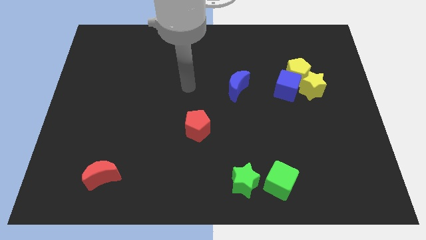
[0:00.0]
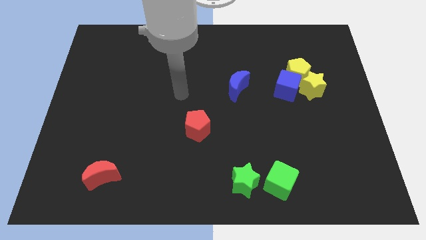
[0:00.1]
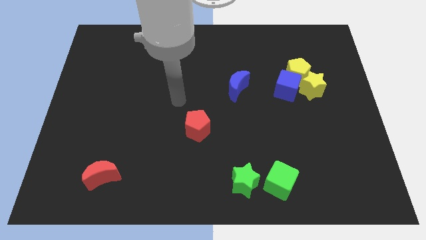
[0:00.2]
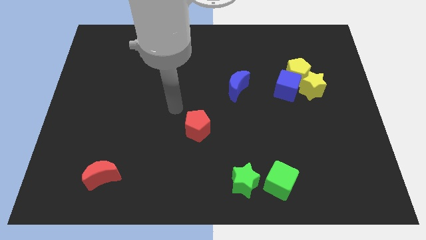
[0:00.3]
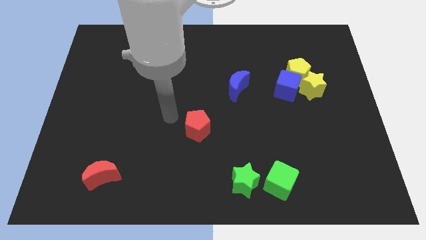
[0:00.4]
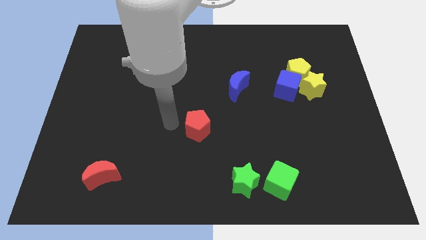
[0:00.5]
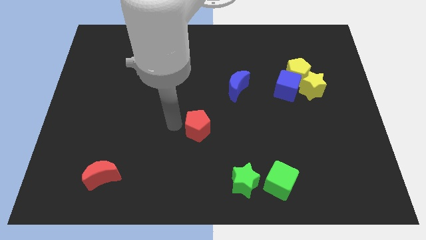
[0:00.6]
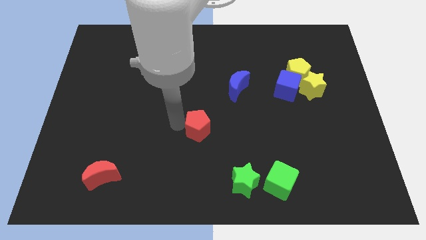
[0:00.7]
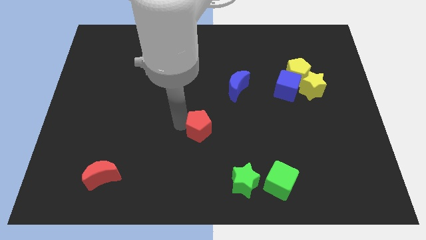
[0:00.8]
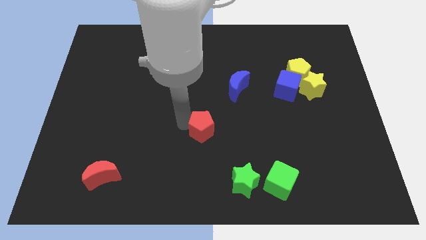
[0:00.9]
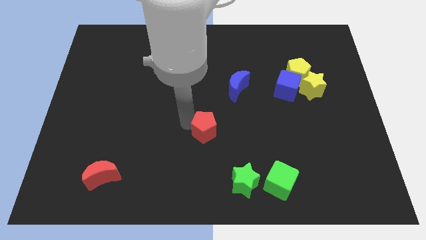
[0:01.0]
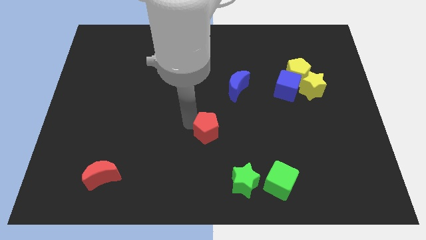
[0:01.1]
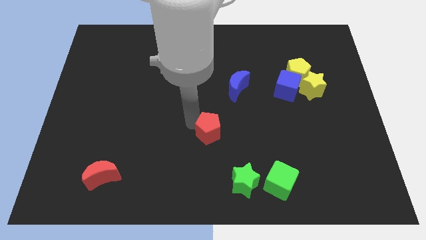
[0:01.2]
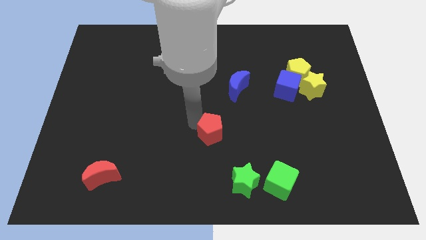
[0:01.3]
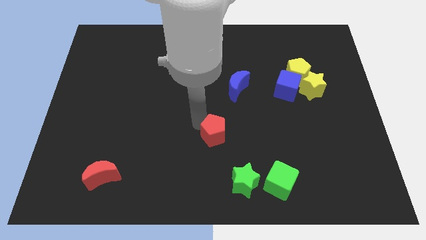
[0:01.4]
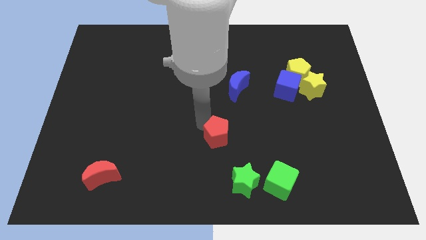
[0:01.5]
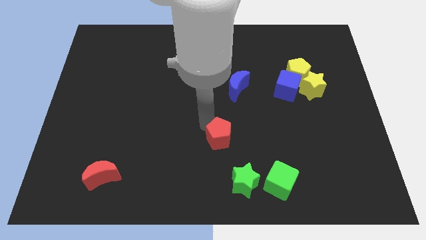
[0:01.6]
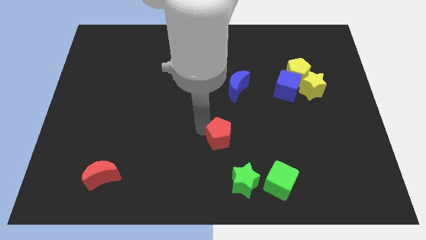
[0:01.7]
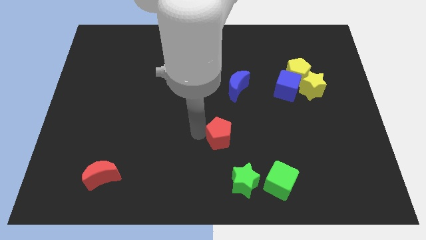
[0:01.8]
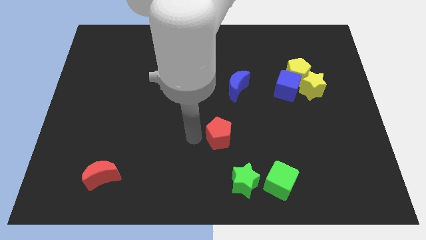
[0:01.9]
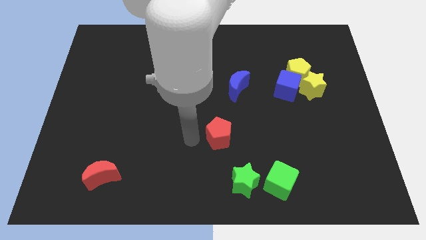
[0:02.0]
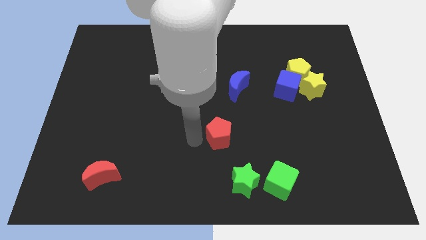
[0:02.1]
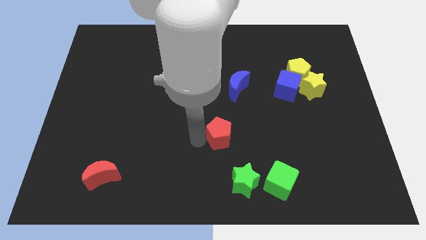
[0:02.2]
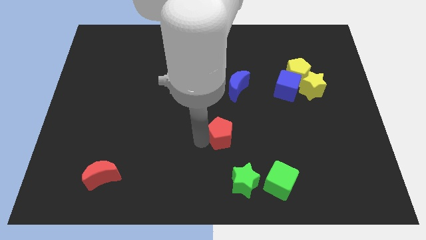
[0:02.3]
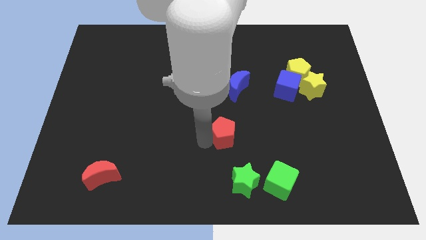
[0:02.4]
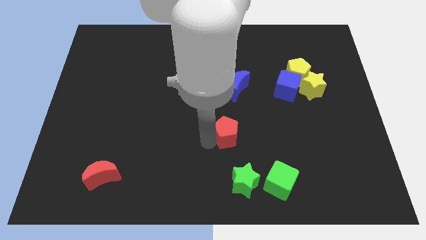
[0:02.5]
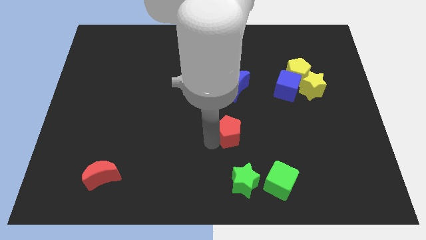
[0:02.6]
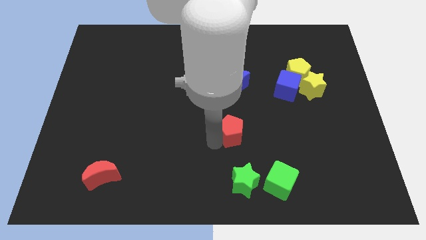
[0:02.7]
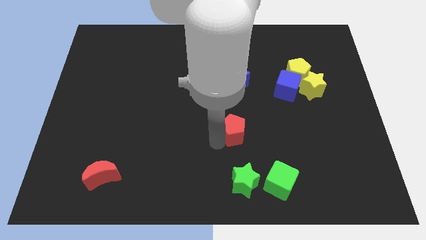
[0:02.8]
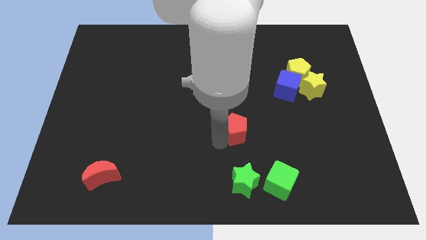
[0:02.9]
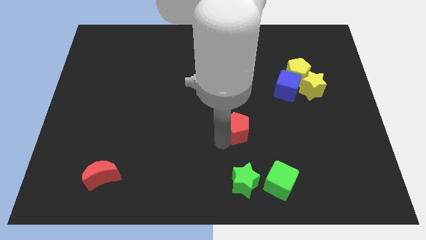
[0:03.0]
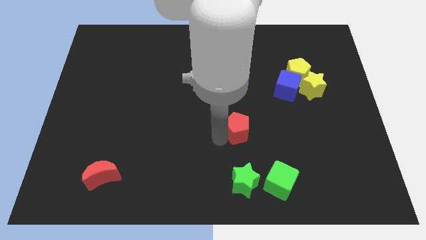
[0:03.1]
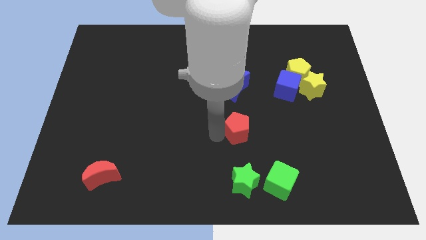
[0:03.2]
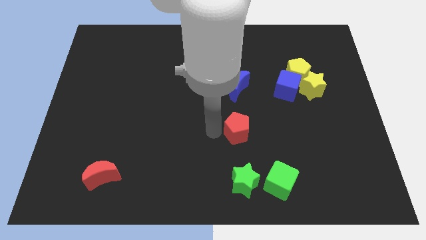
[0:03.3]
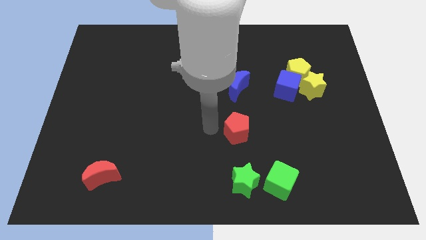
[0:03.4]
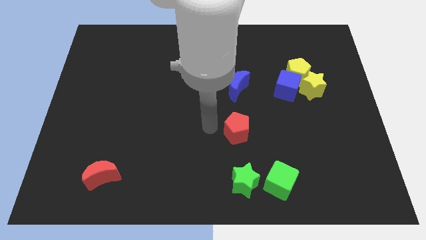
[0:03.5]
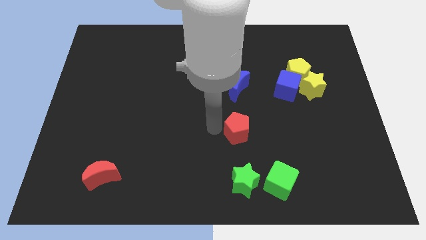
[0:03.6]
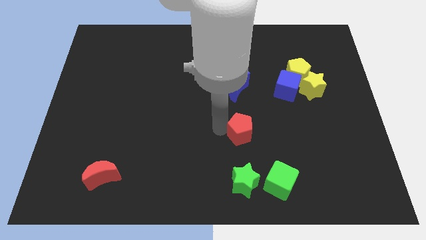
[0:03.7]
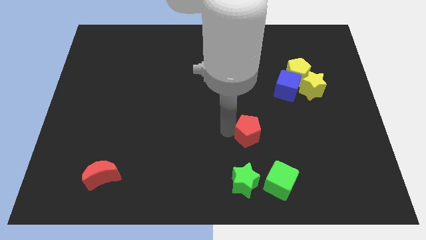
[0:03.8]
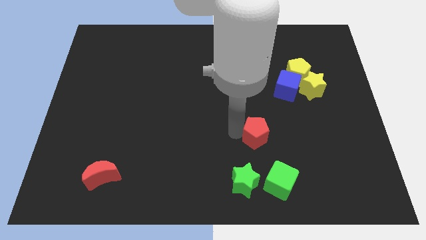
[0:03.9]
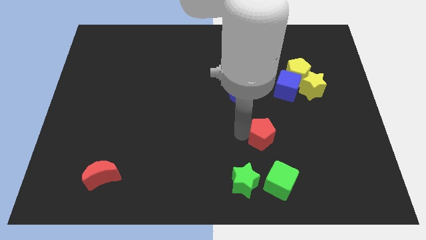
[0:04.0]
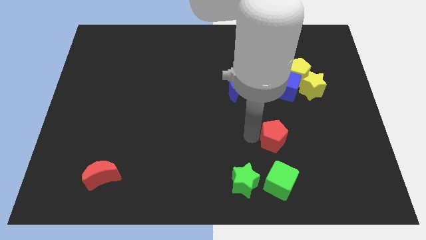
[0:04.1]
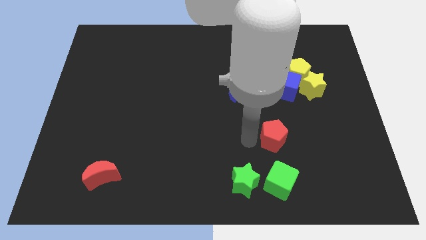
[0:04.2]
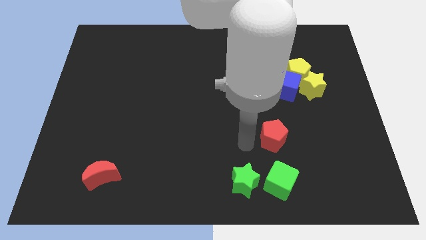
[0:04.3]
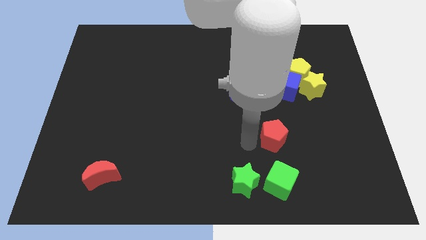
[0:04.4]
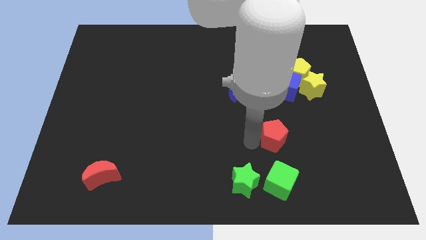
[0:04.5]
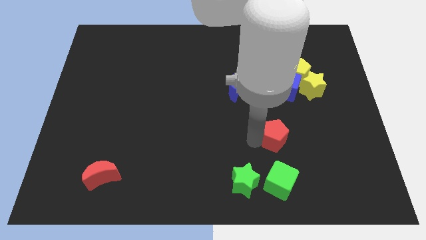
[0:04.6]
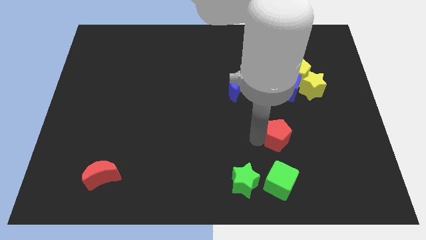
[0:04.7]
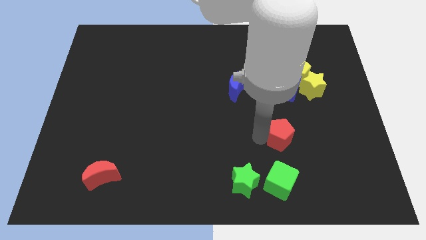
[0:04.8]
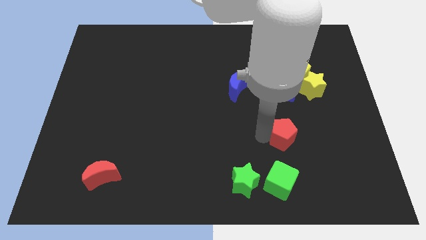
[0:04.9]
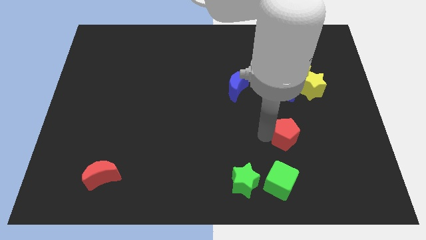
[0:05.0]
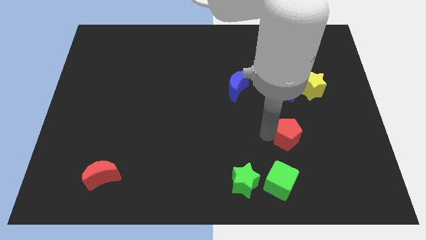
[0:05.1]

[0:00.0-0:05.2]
push the red pentagon to the right

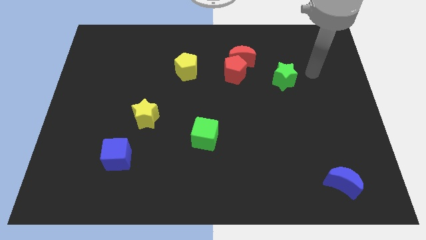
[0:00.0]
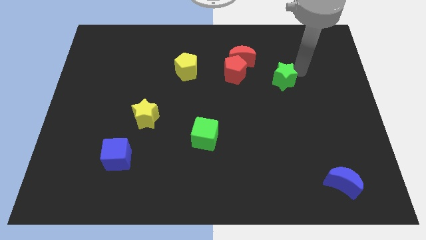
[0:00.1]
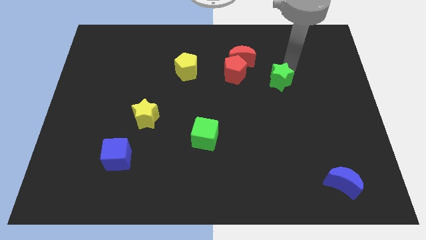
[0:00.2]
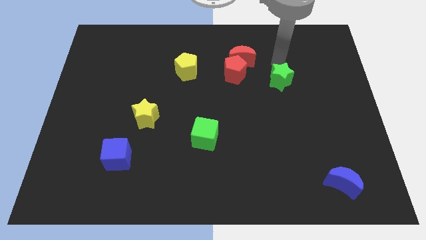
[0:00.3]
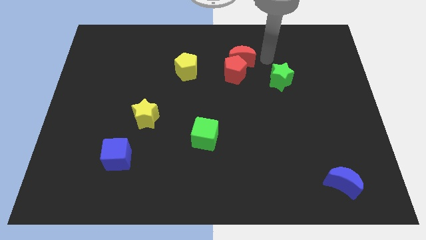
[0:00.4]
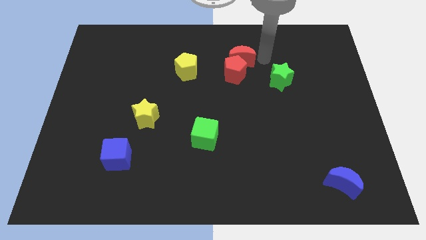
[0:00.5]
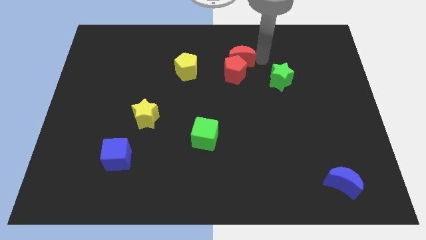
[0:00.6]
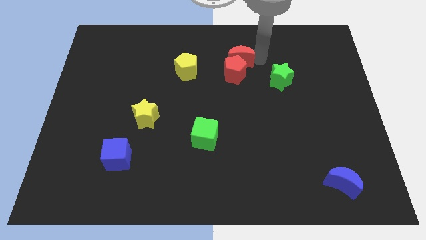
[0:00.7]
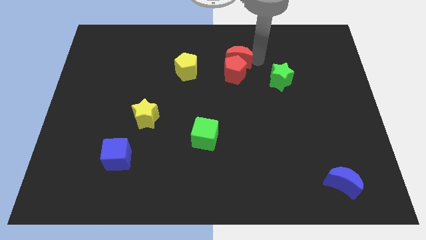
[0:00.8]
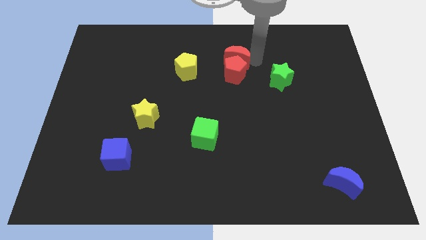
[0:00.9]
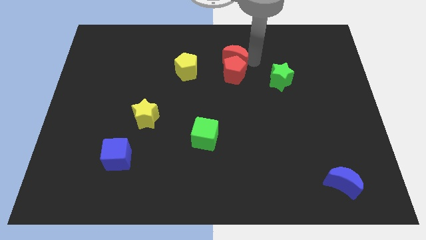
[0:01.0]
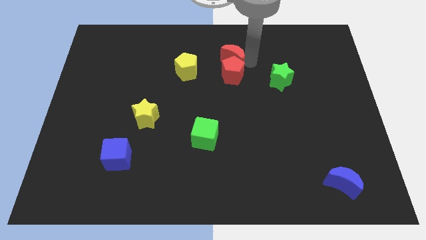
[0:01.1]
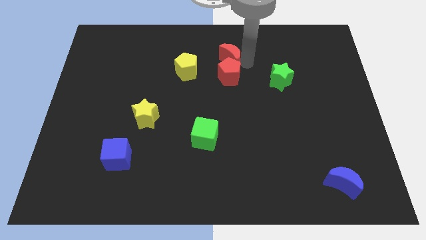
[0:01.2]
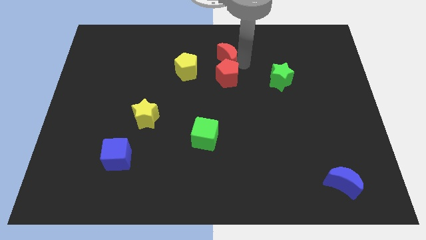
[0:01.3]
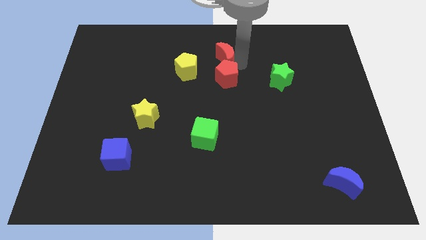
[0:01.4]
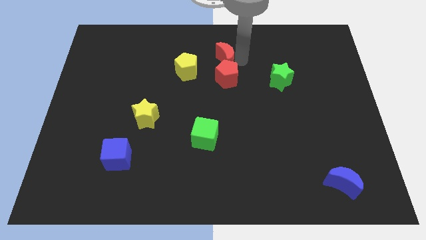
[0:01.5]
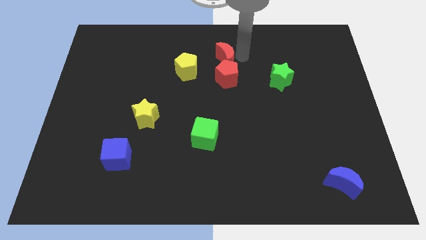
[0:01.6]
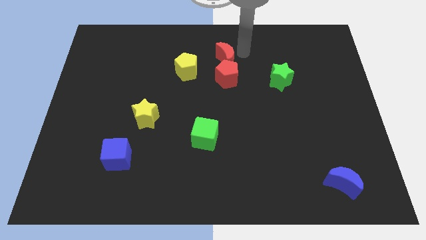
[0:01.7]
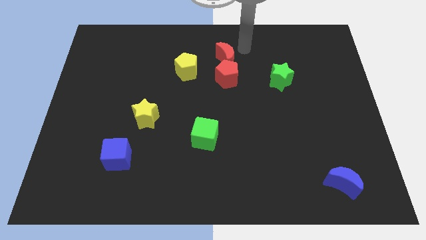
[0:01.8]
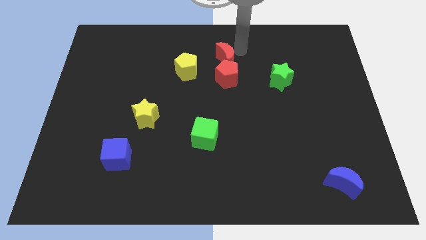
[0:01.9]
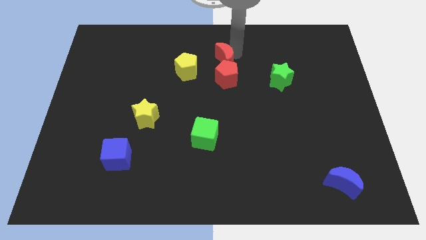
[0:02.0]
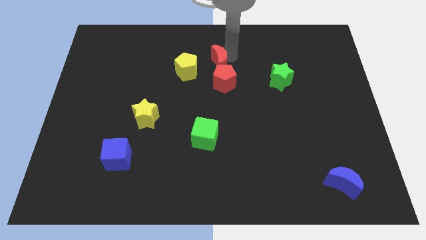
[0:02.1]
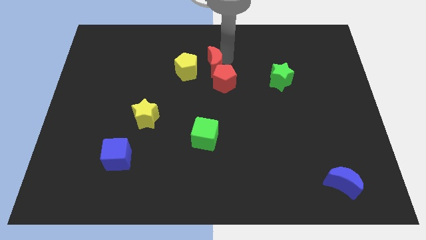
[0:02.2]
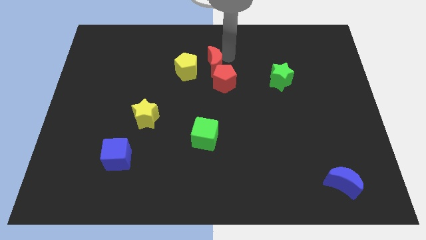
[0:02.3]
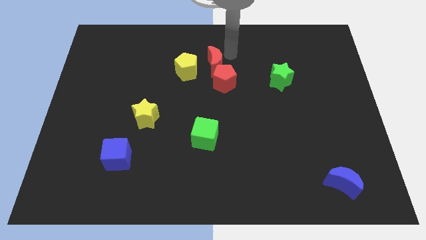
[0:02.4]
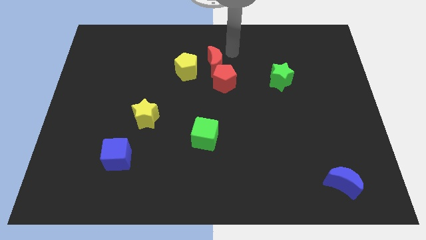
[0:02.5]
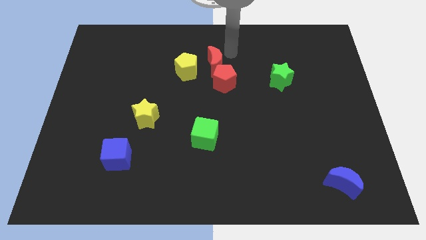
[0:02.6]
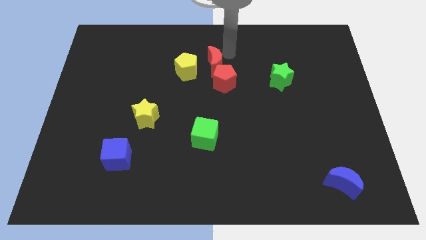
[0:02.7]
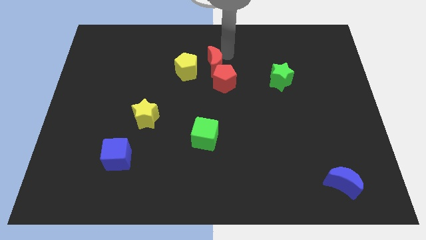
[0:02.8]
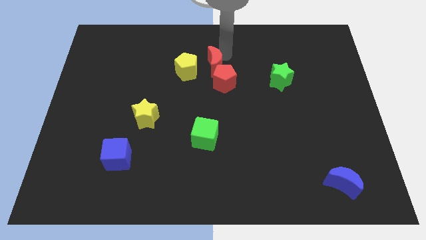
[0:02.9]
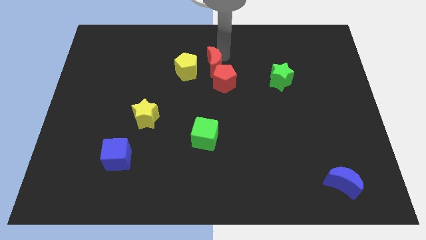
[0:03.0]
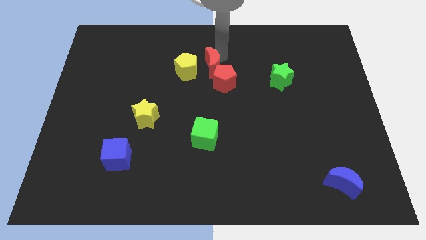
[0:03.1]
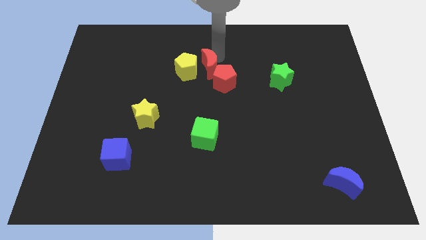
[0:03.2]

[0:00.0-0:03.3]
slightly push the red moon down and left diagonally
